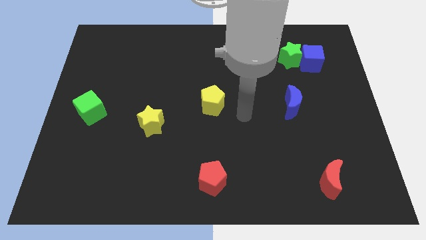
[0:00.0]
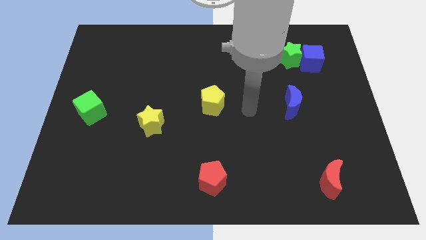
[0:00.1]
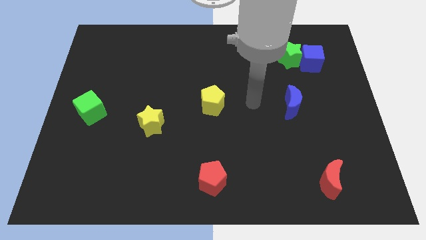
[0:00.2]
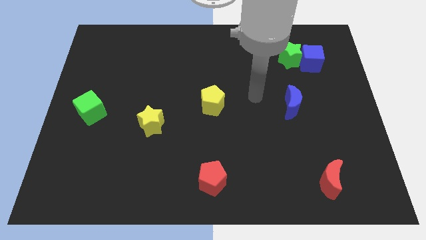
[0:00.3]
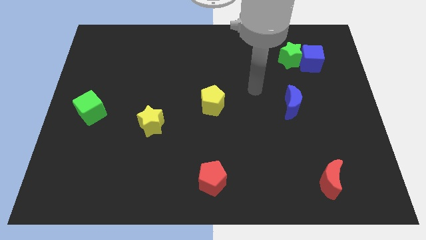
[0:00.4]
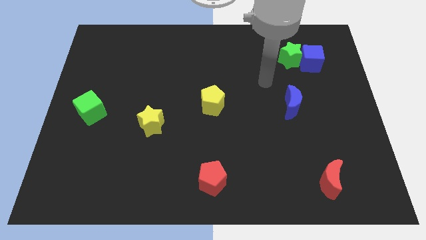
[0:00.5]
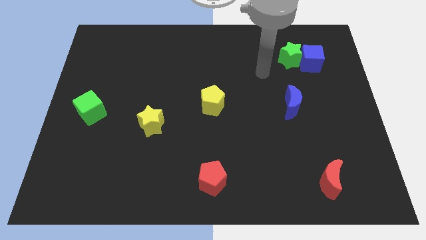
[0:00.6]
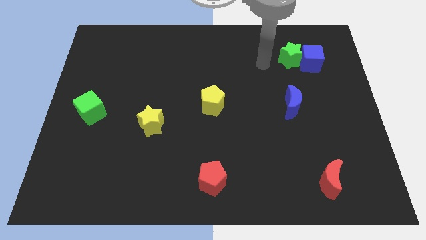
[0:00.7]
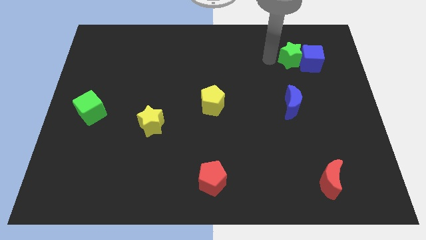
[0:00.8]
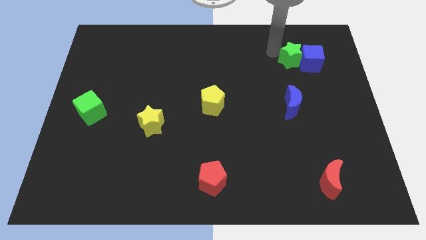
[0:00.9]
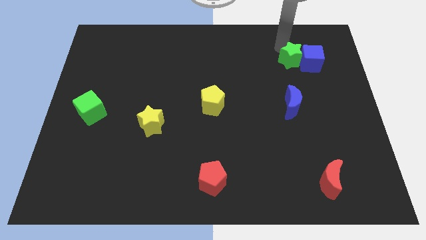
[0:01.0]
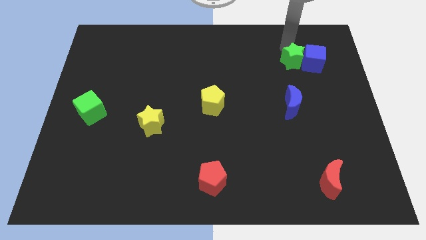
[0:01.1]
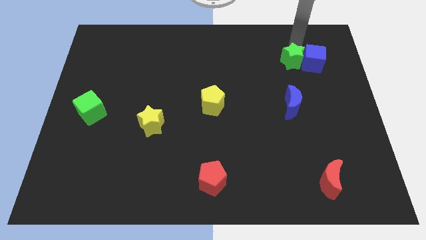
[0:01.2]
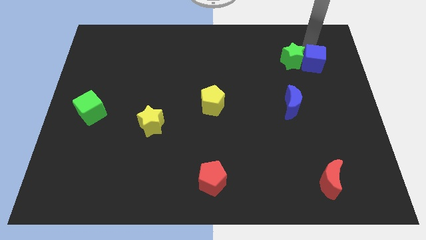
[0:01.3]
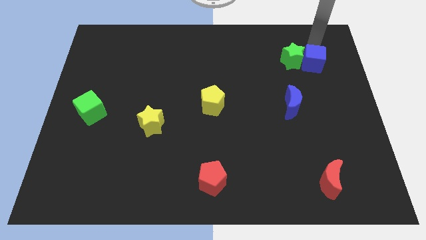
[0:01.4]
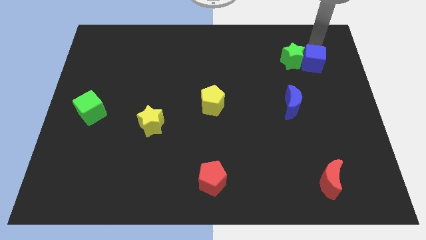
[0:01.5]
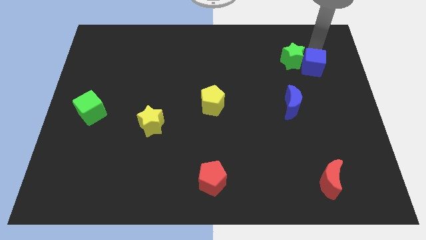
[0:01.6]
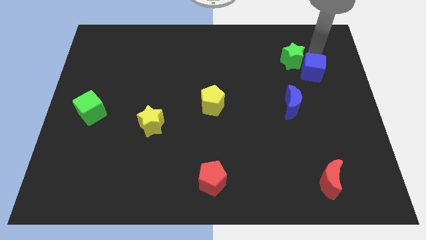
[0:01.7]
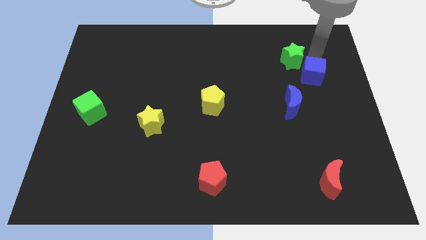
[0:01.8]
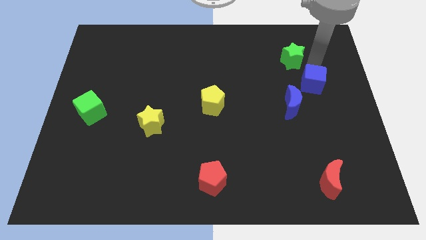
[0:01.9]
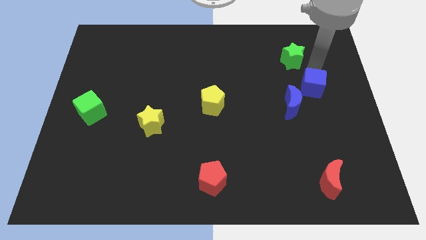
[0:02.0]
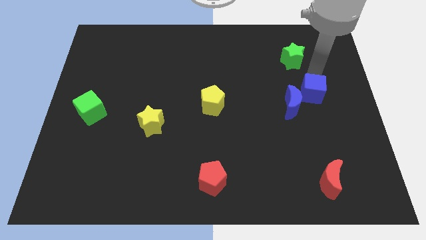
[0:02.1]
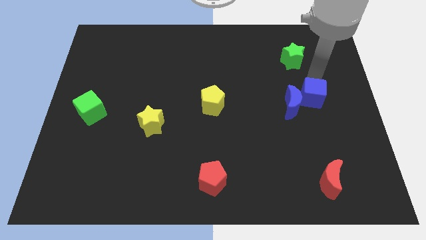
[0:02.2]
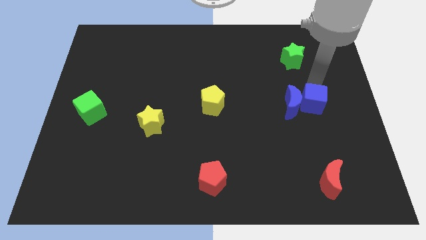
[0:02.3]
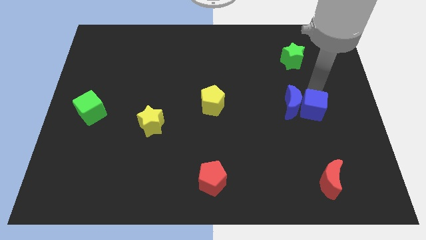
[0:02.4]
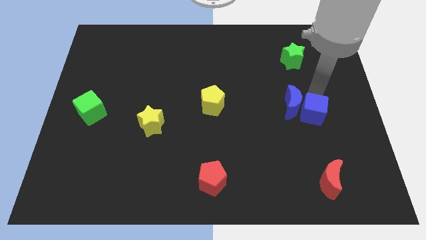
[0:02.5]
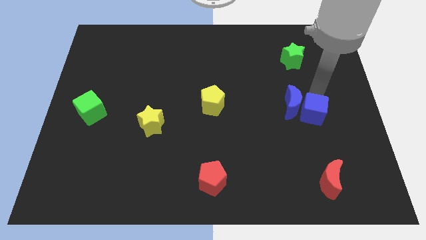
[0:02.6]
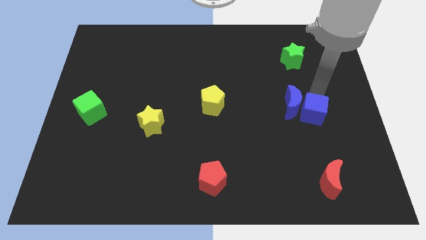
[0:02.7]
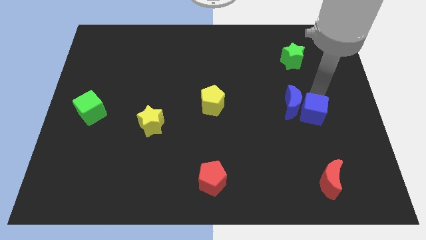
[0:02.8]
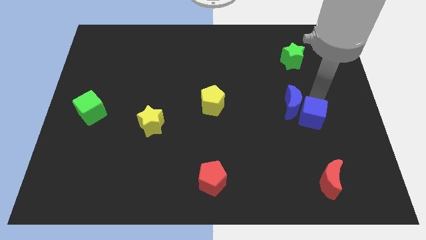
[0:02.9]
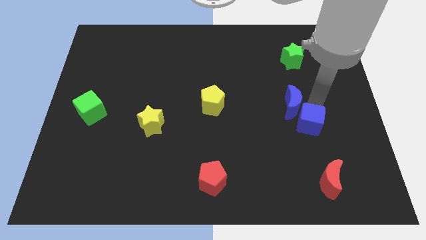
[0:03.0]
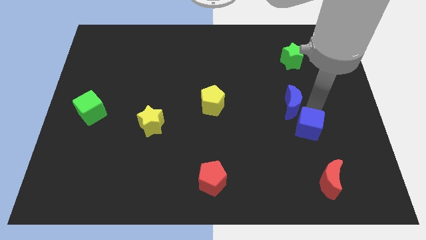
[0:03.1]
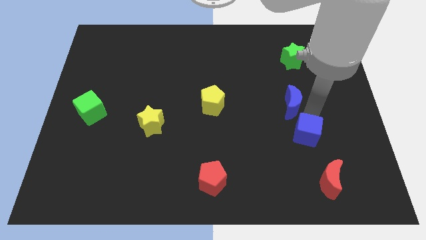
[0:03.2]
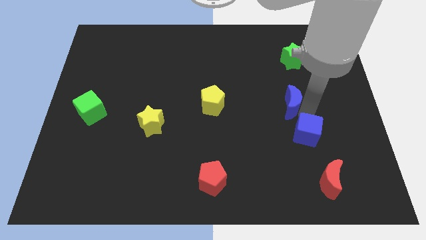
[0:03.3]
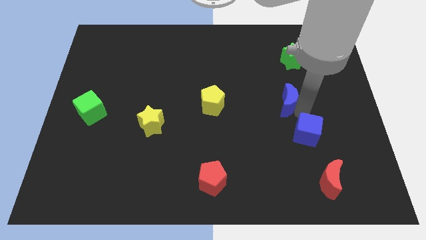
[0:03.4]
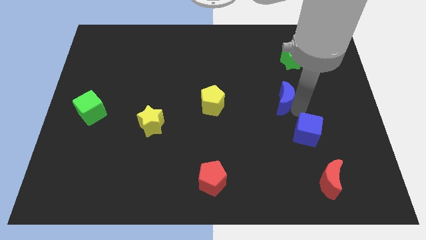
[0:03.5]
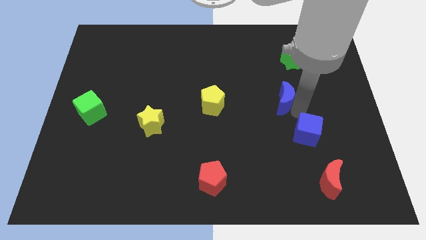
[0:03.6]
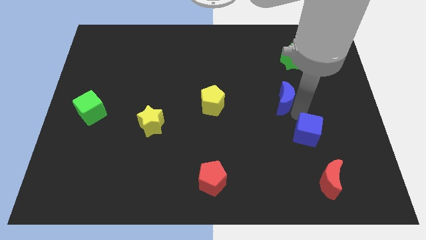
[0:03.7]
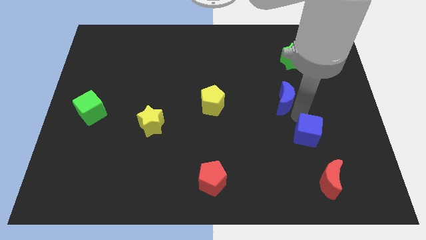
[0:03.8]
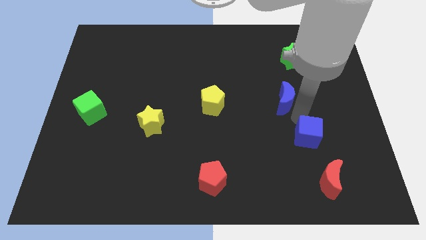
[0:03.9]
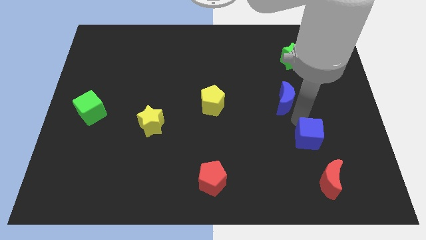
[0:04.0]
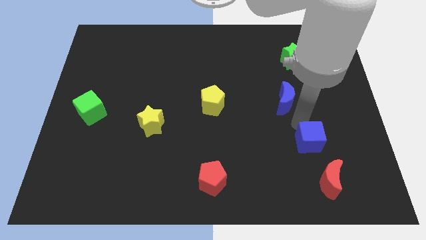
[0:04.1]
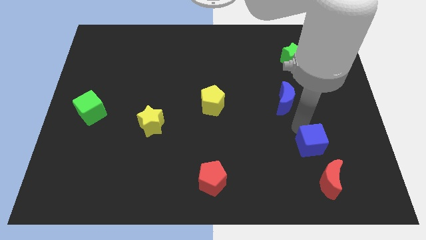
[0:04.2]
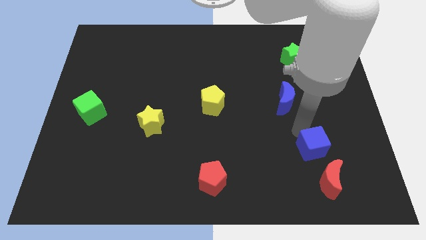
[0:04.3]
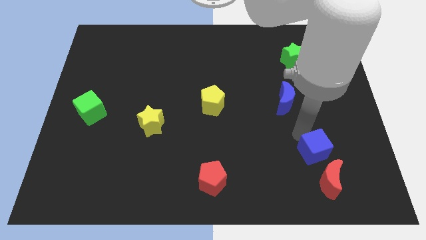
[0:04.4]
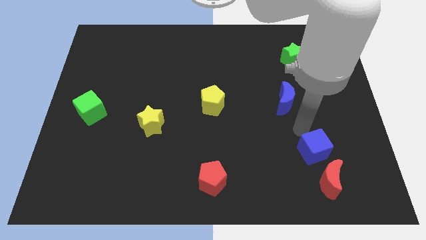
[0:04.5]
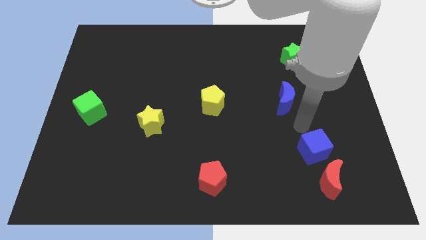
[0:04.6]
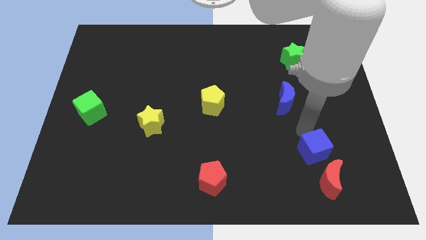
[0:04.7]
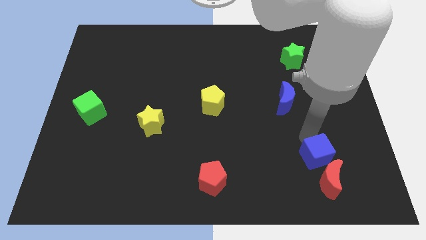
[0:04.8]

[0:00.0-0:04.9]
slide the blue cube close to the red moon

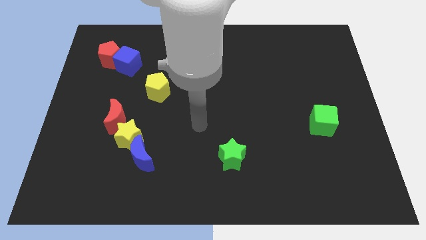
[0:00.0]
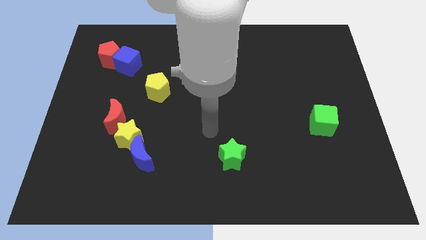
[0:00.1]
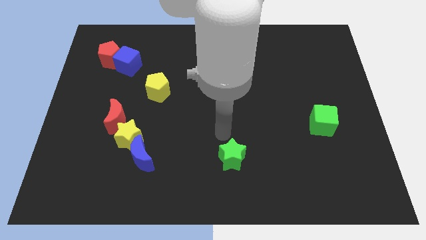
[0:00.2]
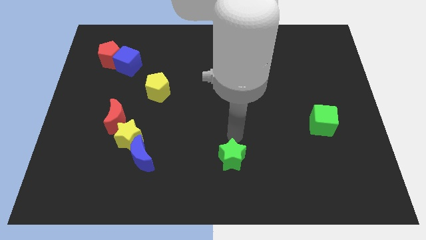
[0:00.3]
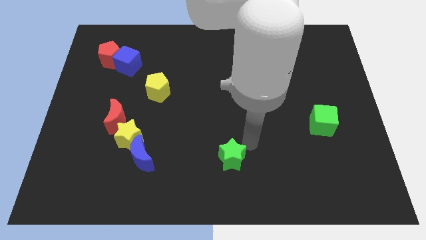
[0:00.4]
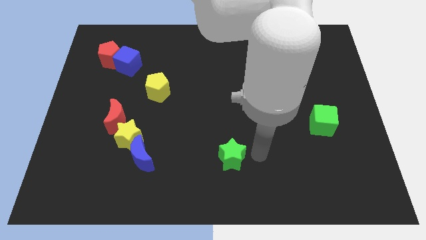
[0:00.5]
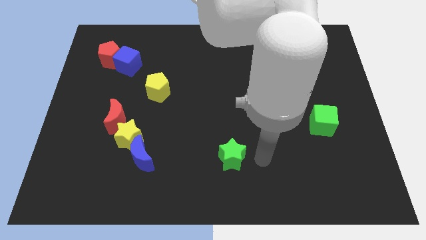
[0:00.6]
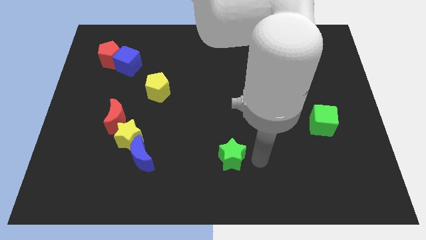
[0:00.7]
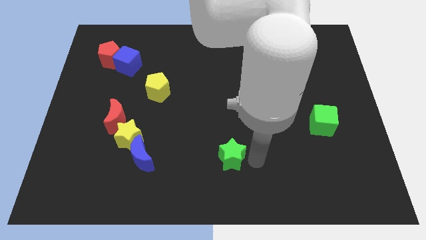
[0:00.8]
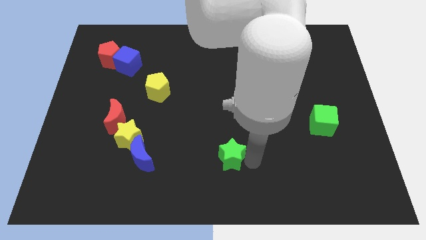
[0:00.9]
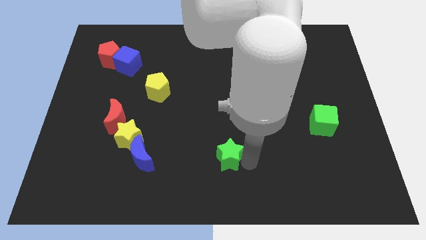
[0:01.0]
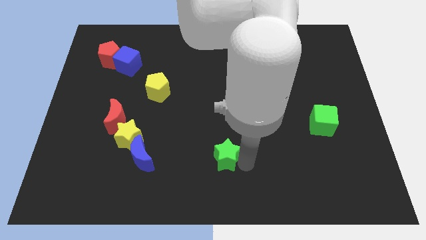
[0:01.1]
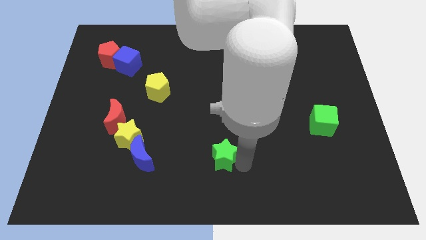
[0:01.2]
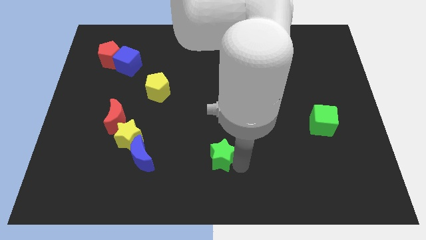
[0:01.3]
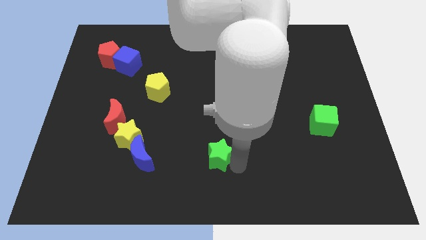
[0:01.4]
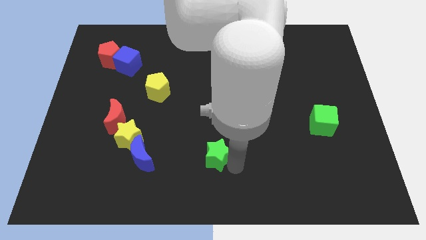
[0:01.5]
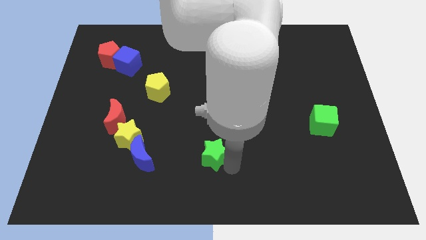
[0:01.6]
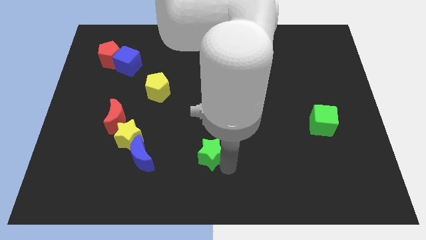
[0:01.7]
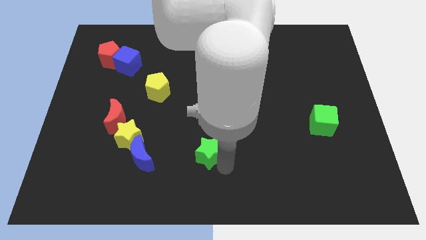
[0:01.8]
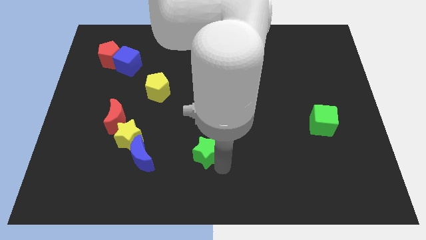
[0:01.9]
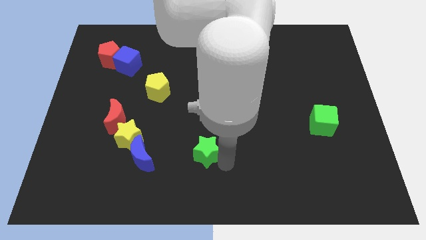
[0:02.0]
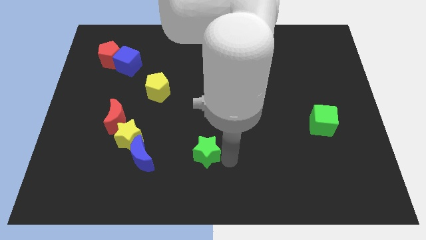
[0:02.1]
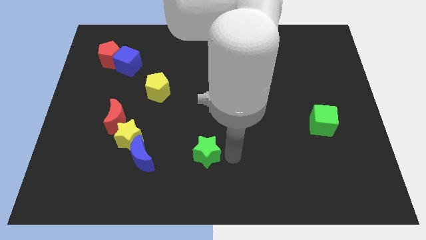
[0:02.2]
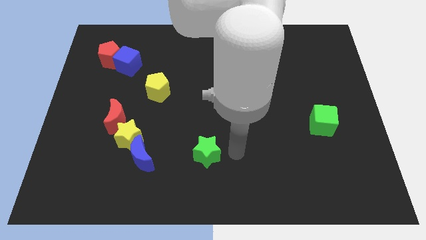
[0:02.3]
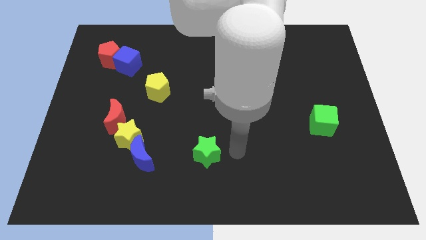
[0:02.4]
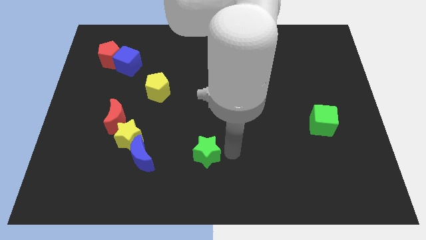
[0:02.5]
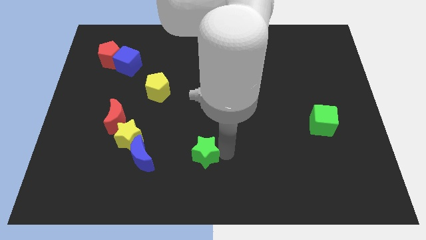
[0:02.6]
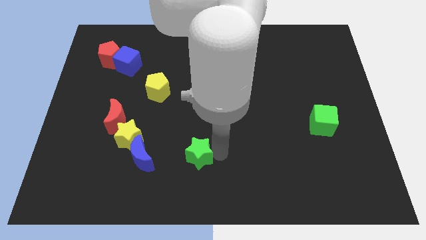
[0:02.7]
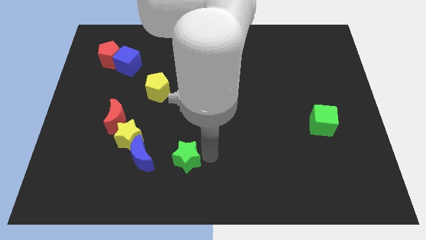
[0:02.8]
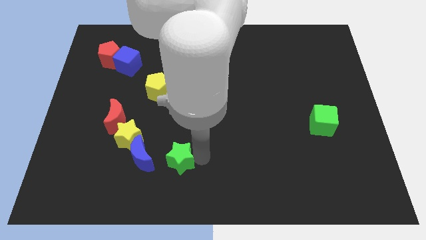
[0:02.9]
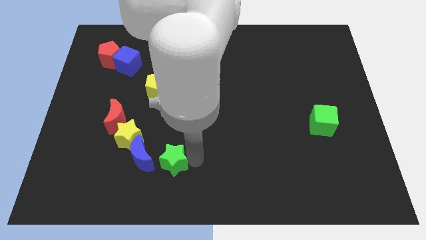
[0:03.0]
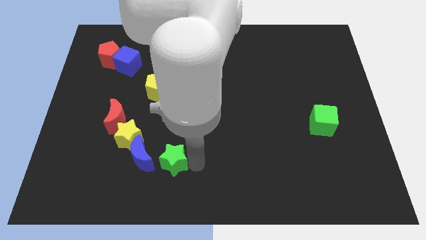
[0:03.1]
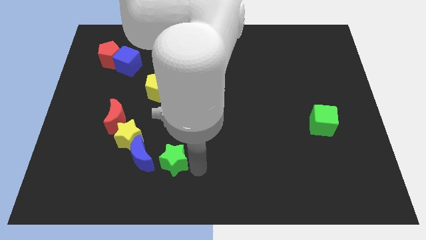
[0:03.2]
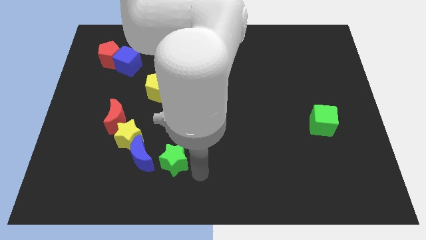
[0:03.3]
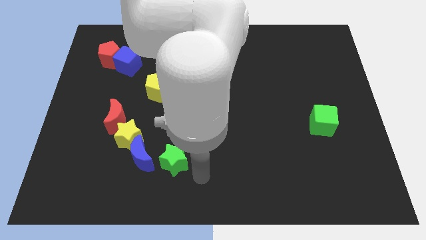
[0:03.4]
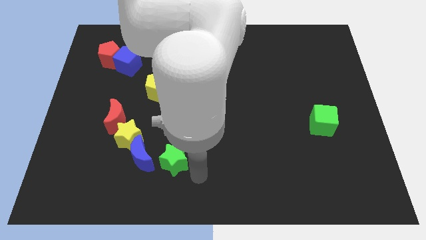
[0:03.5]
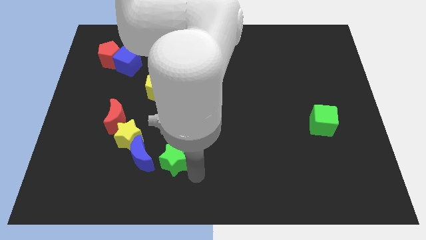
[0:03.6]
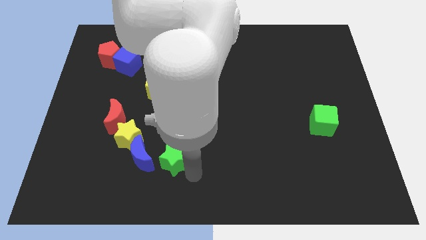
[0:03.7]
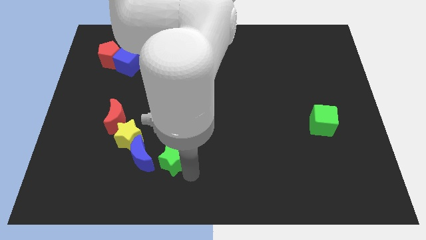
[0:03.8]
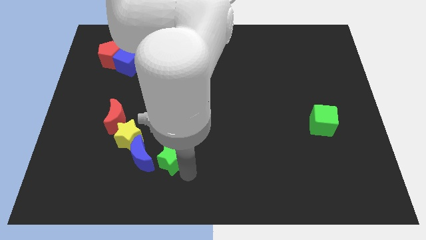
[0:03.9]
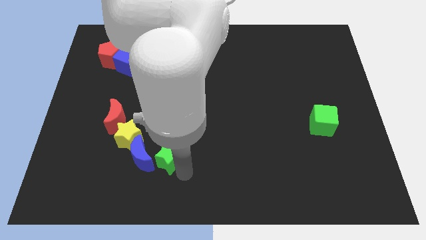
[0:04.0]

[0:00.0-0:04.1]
push the green star close to the blue moon
